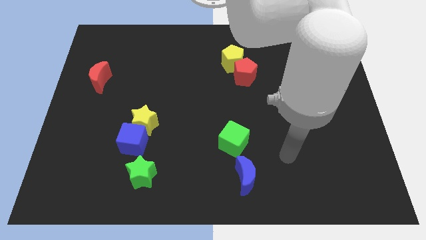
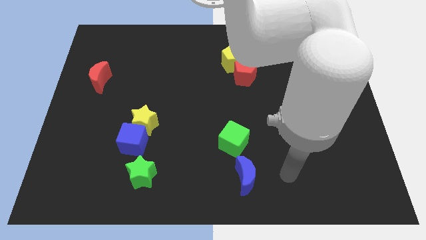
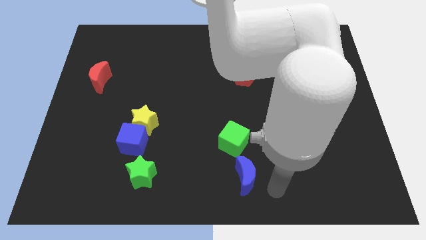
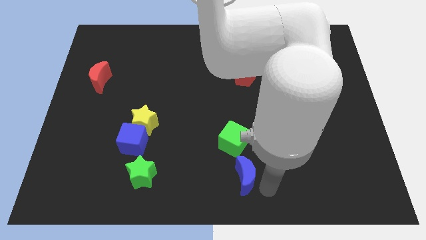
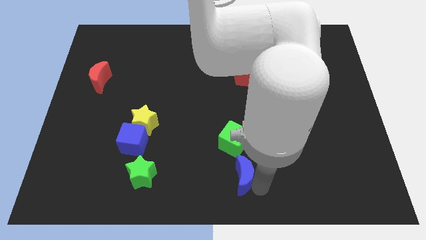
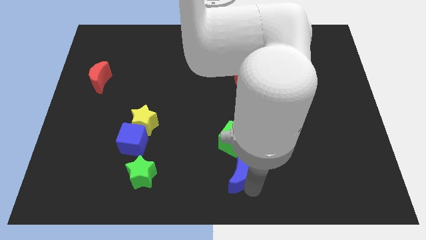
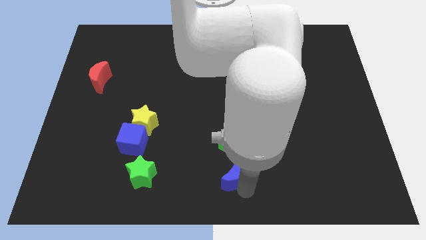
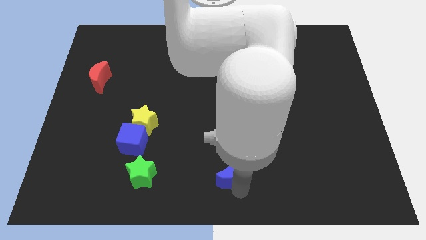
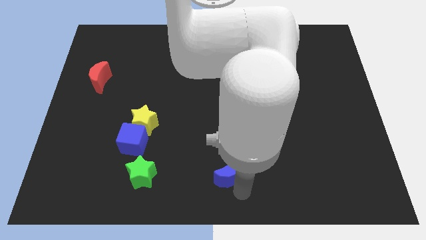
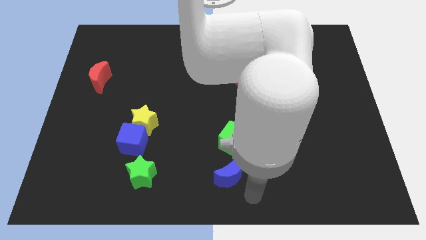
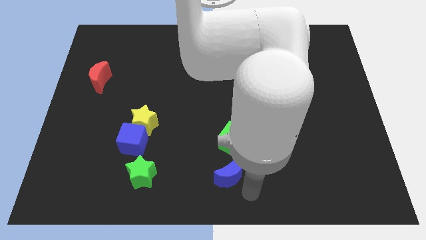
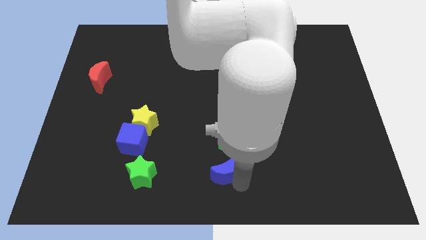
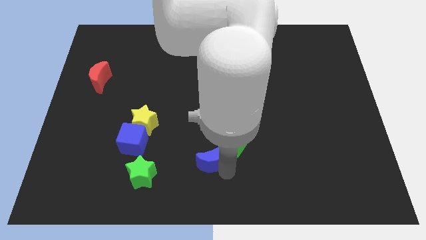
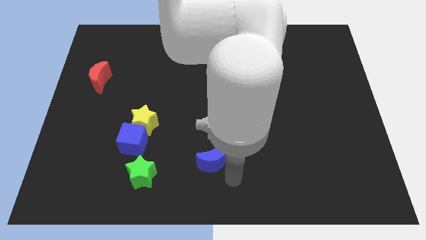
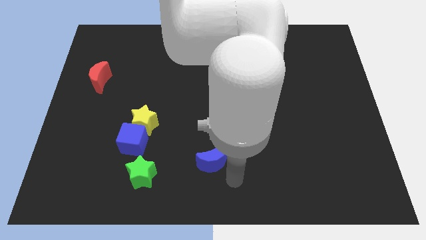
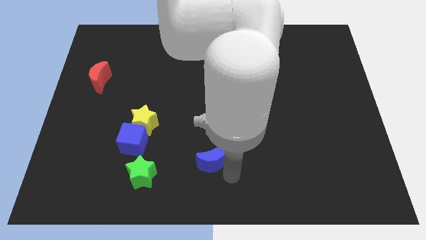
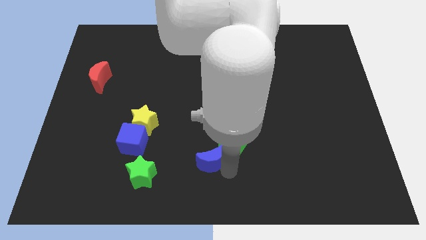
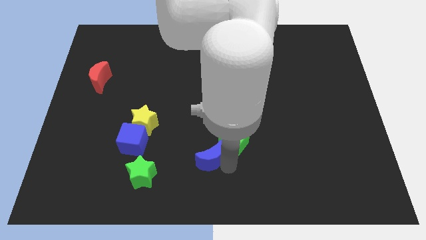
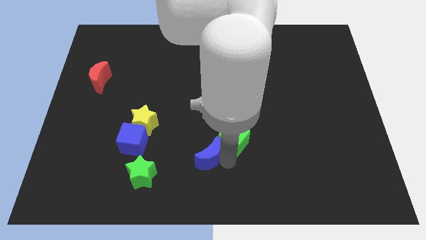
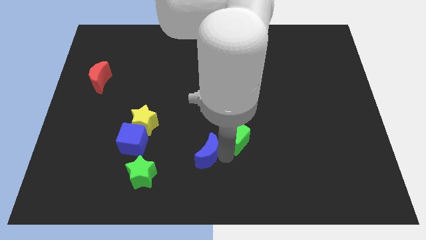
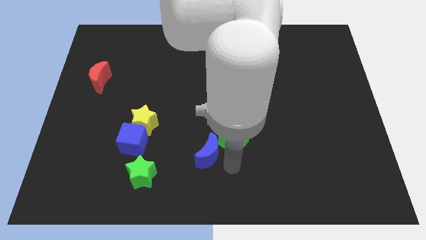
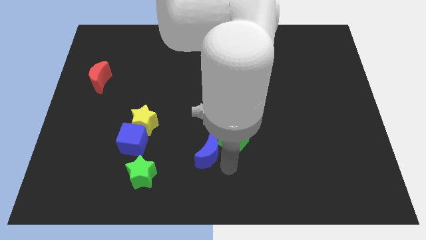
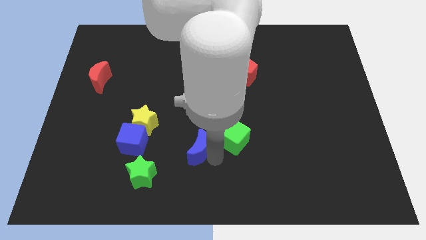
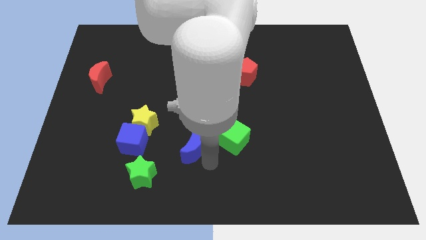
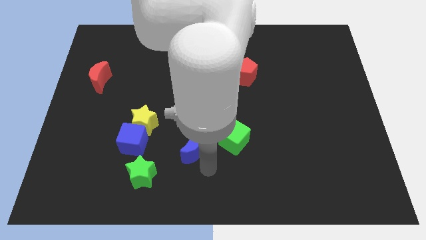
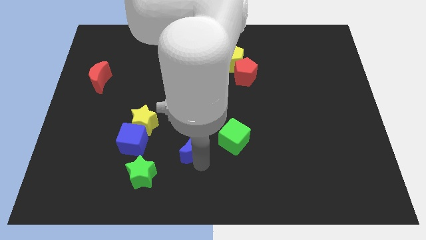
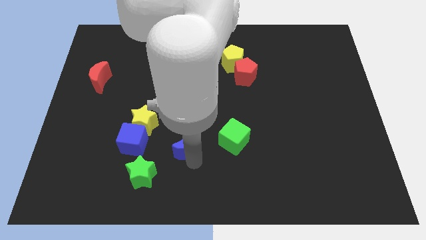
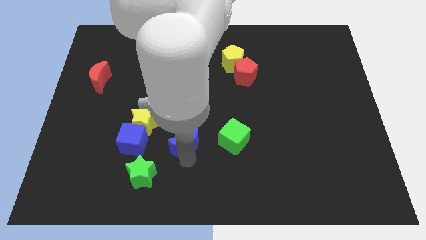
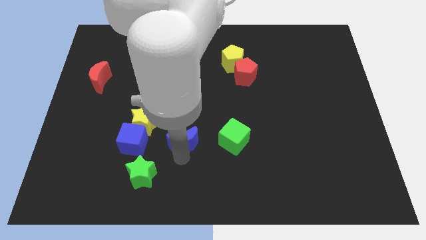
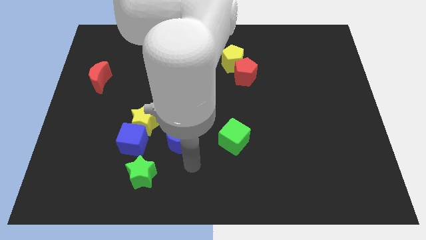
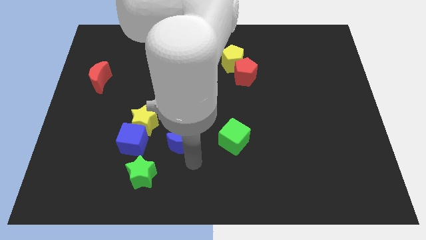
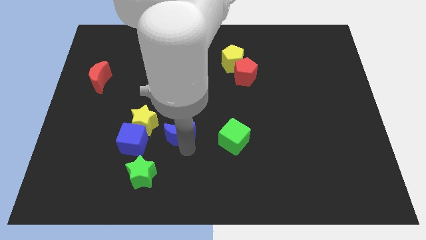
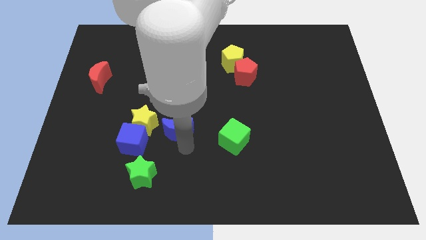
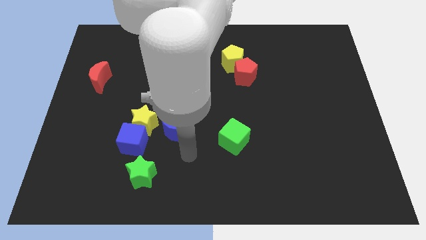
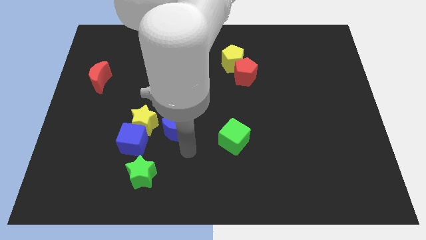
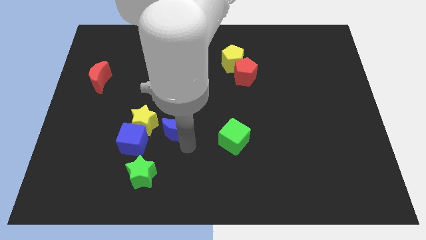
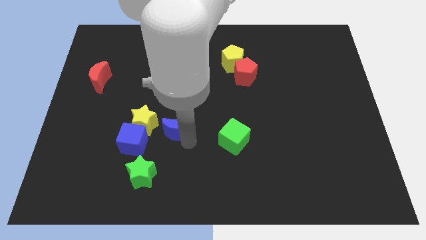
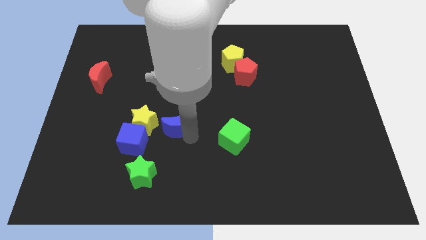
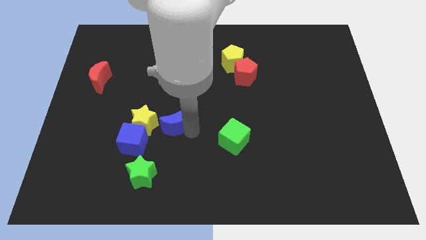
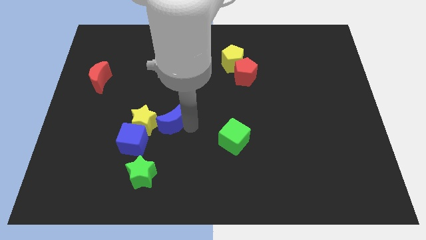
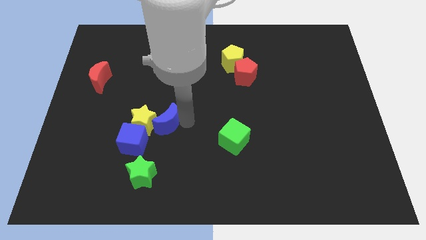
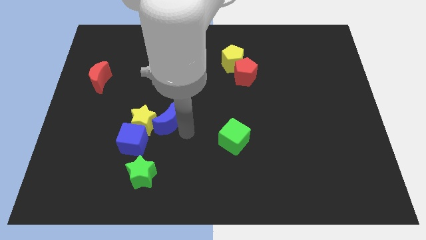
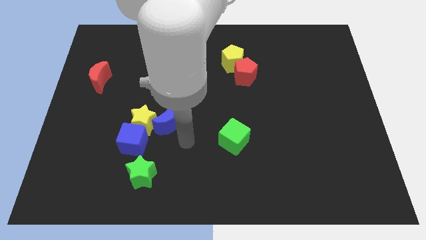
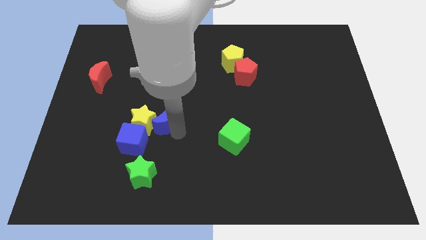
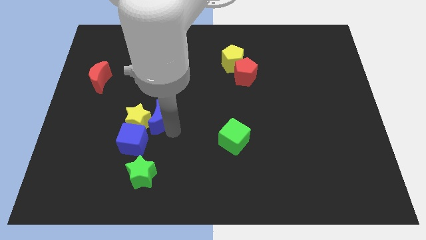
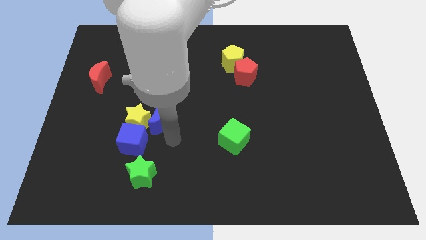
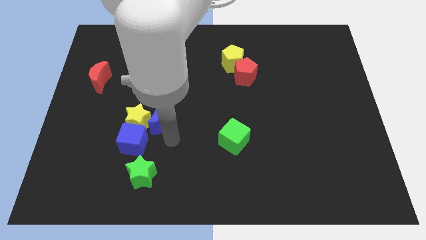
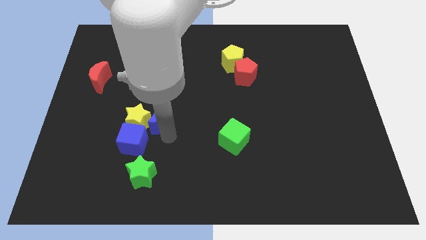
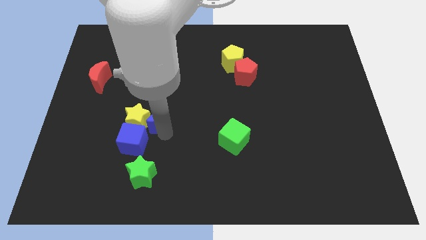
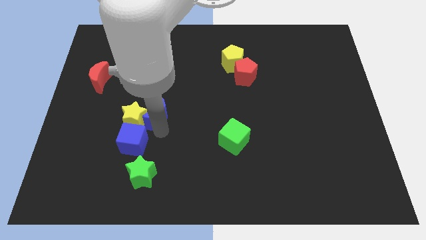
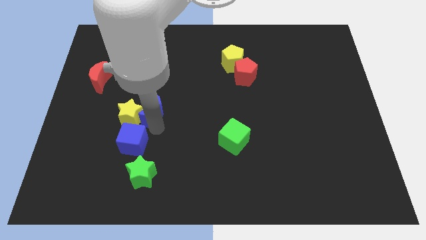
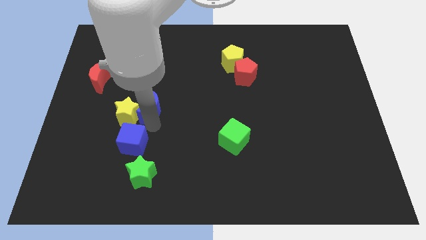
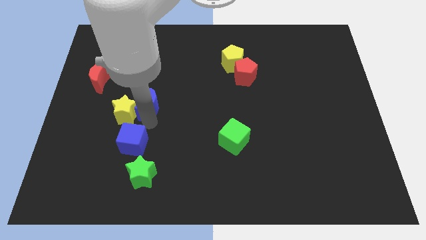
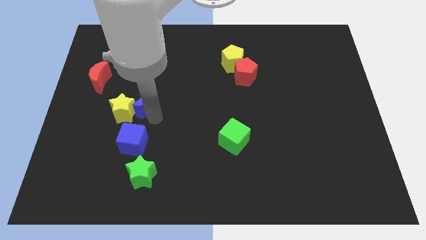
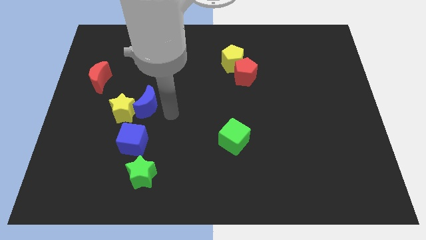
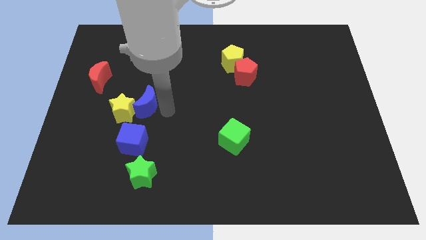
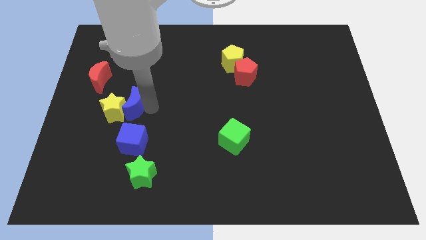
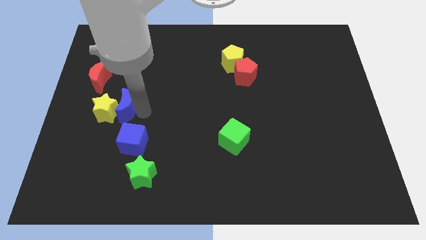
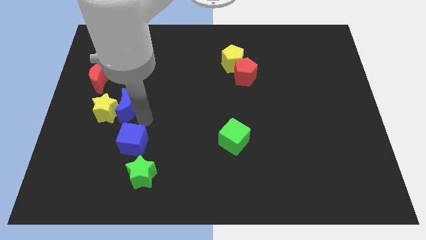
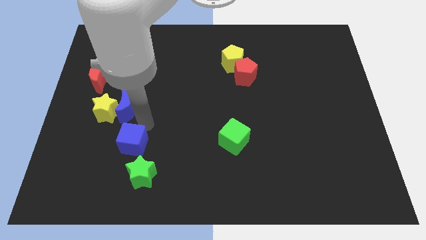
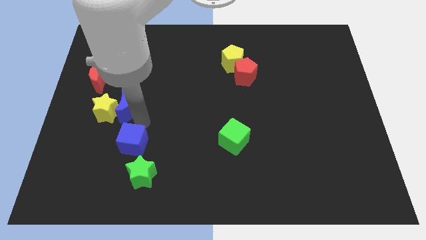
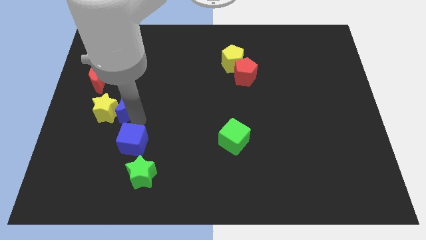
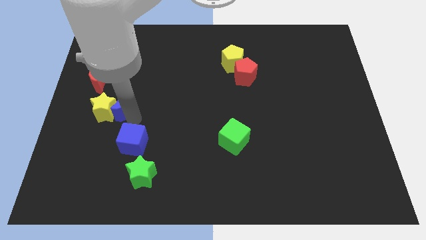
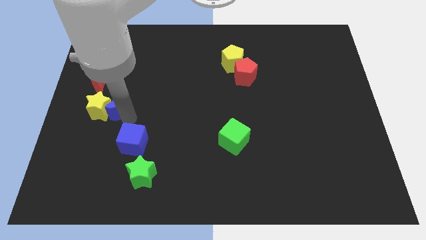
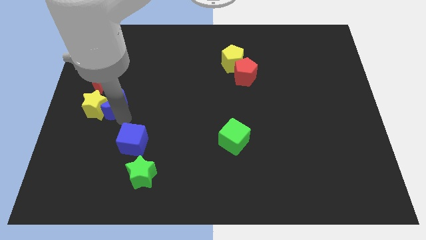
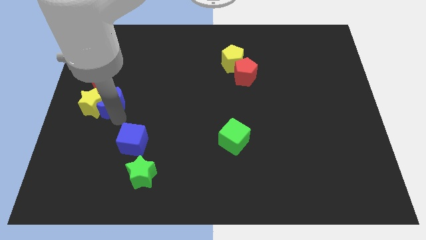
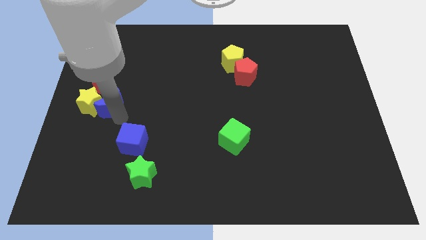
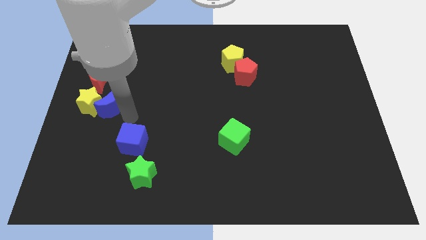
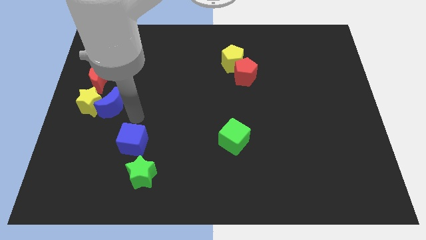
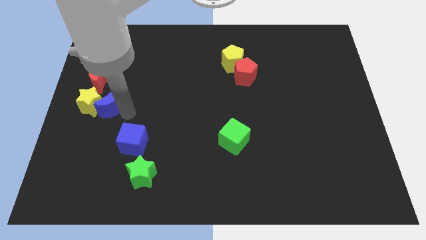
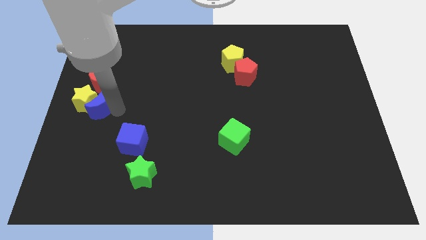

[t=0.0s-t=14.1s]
push the blue moon to the left side

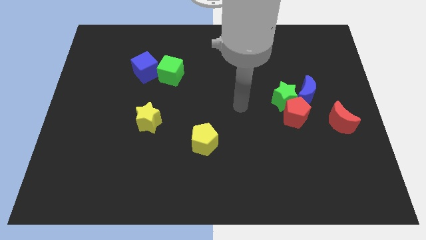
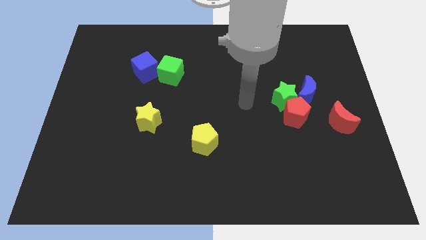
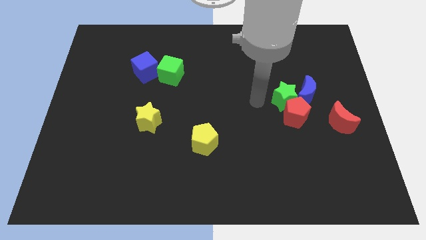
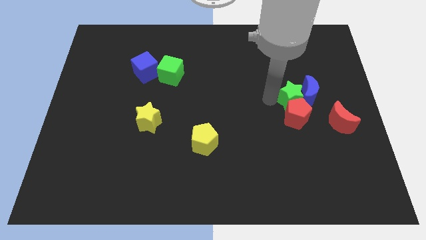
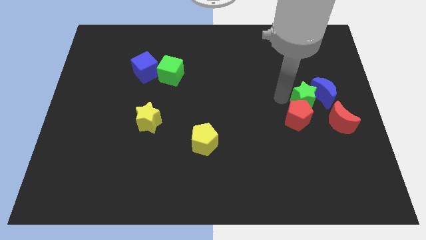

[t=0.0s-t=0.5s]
move the blue moon to the right side of the board
